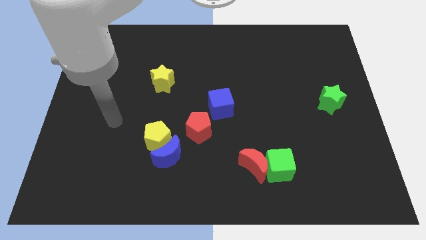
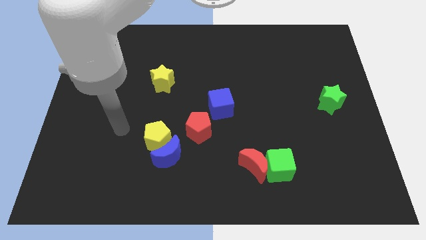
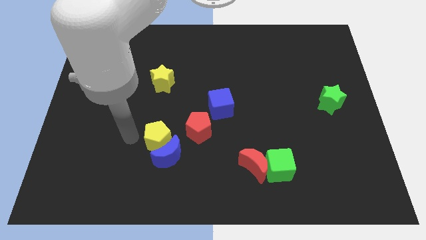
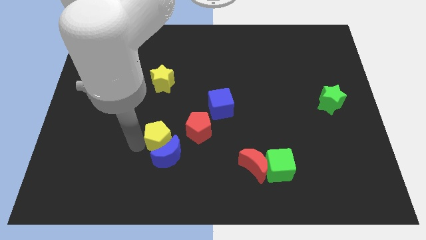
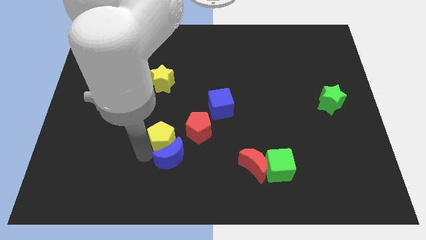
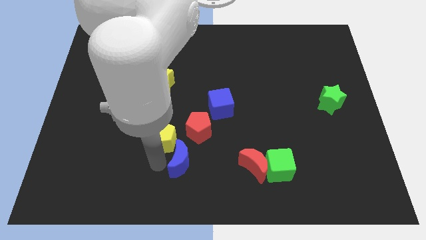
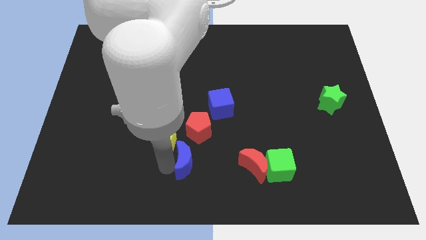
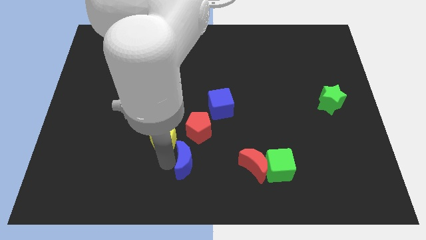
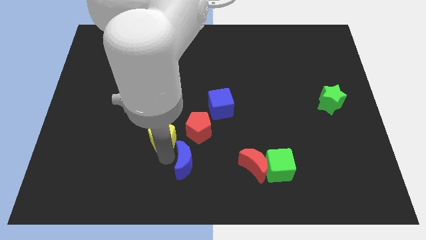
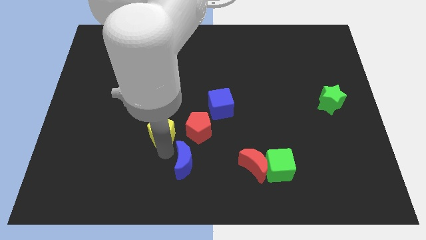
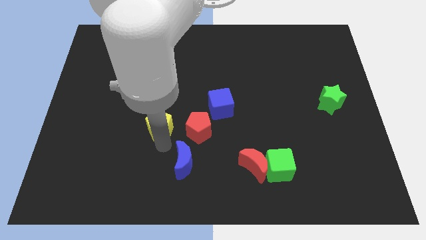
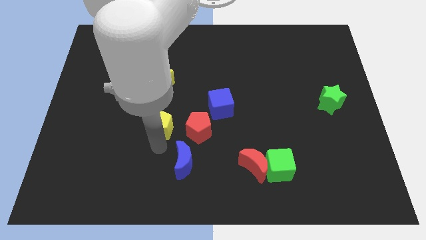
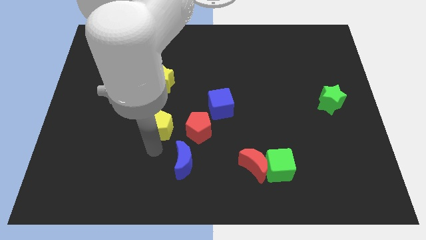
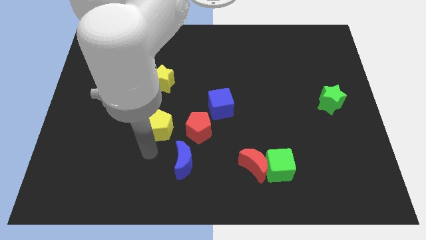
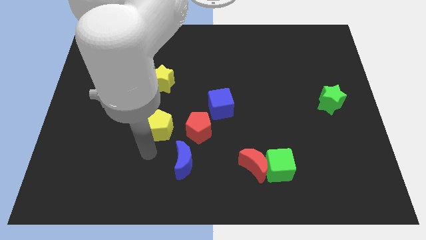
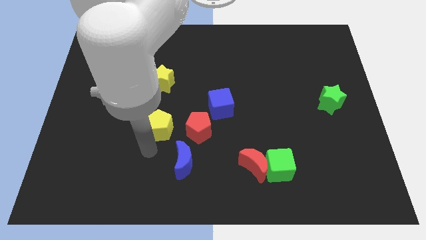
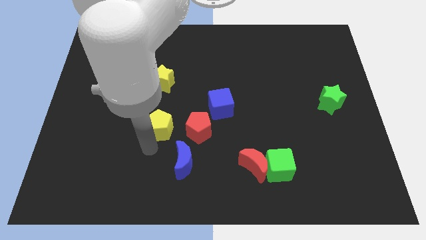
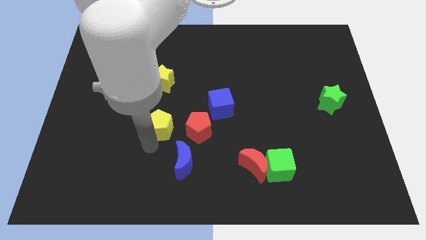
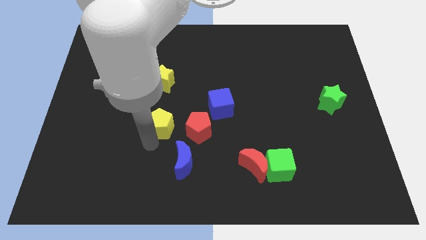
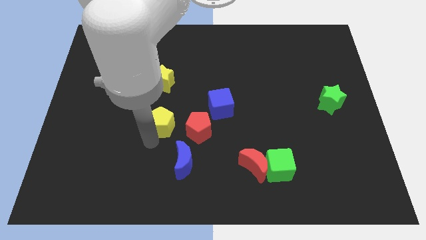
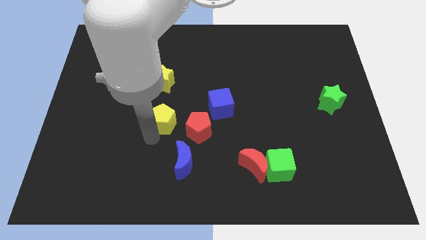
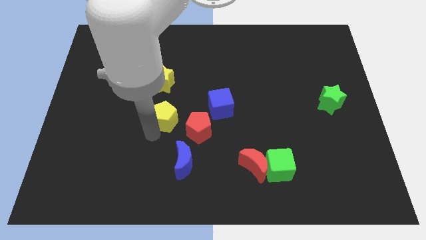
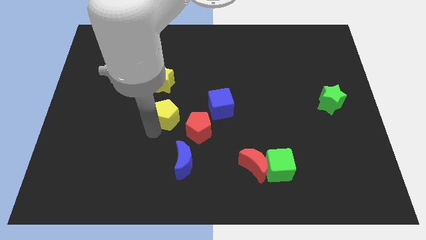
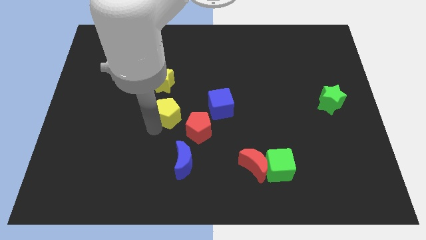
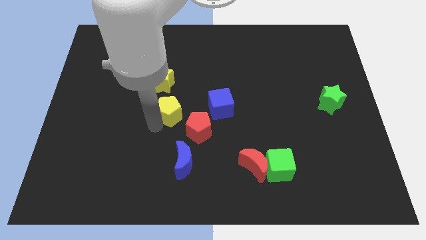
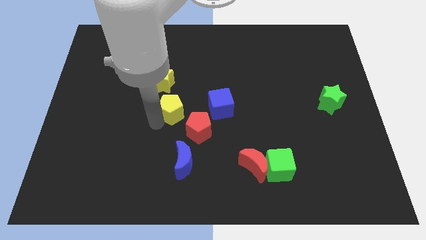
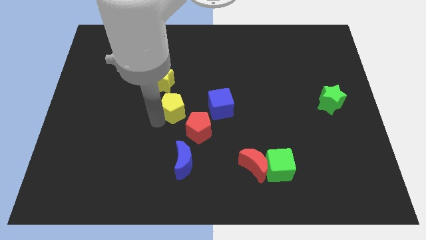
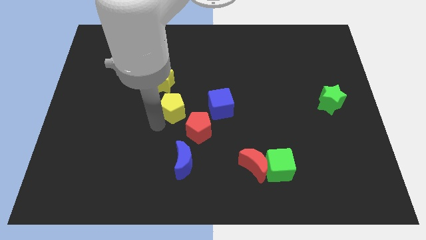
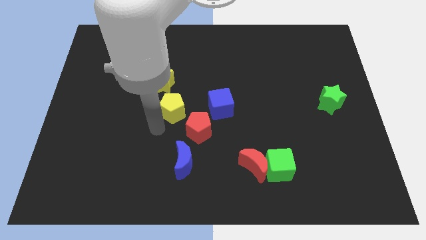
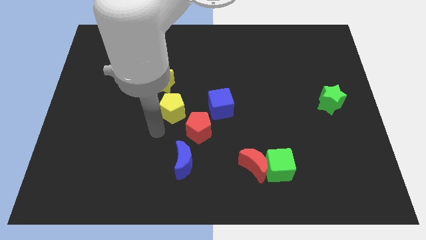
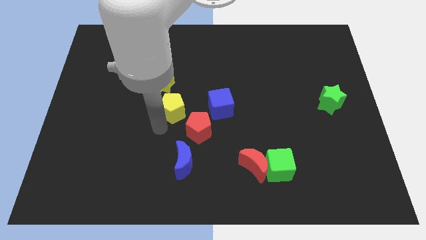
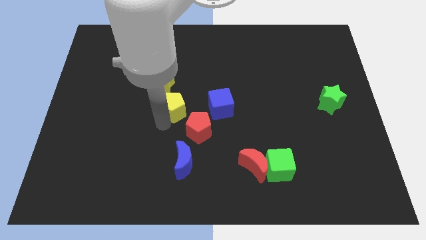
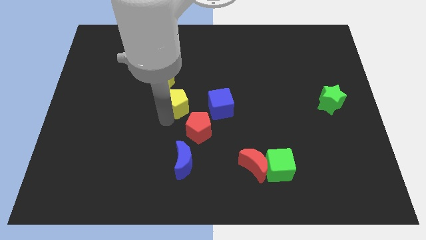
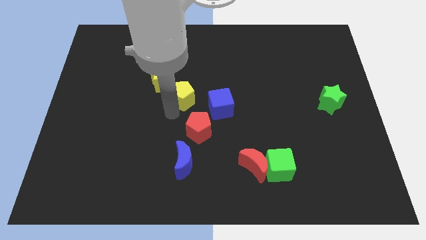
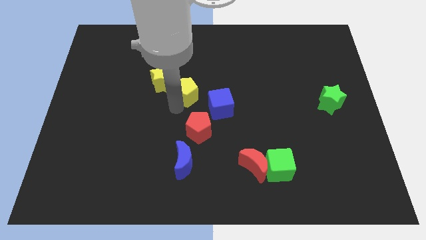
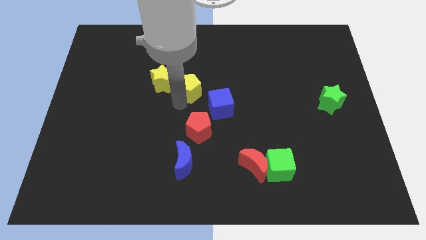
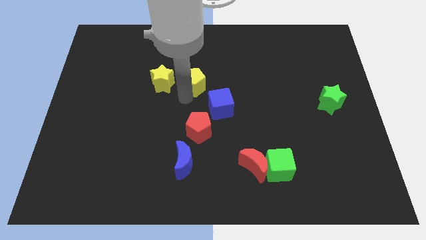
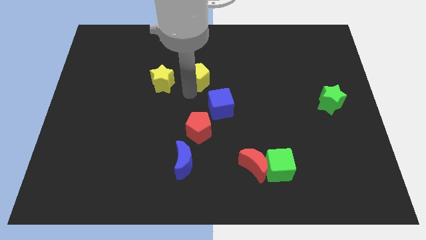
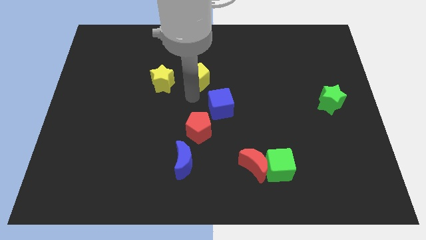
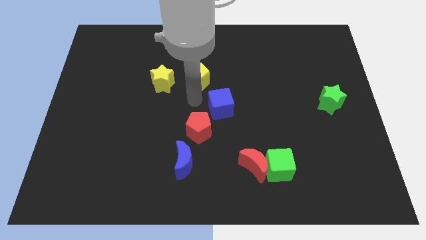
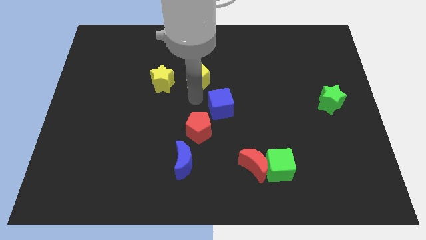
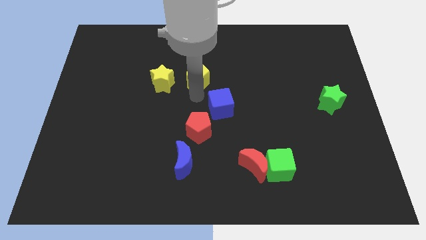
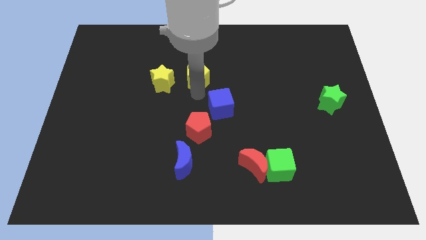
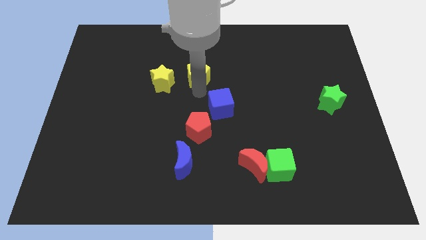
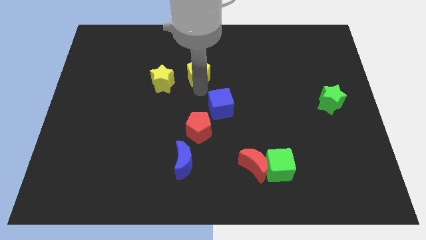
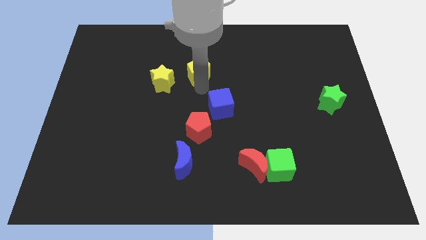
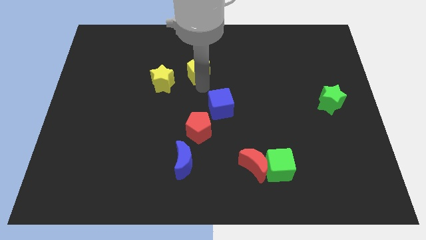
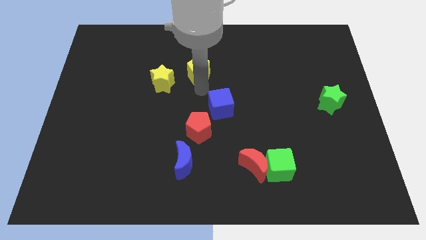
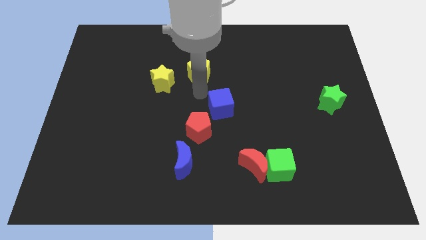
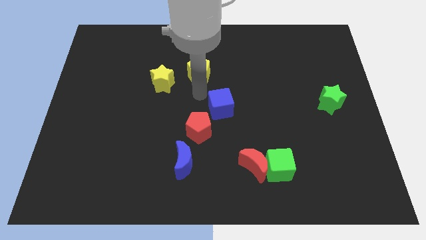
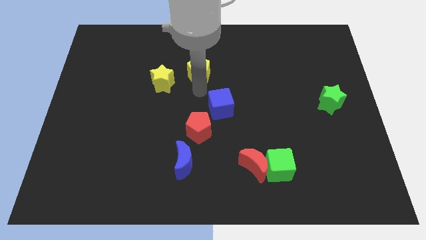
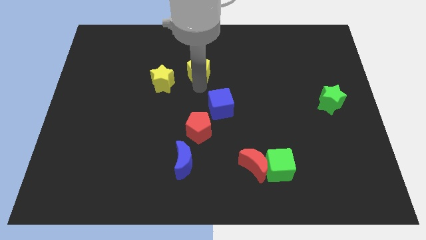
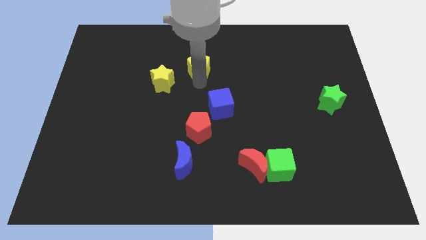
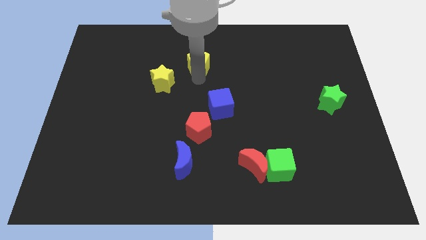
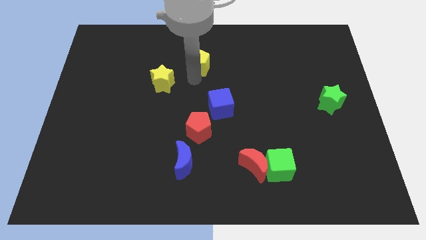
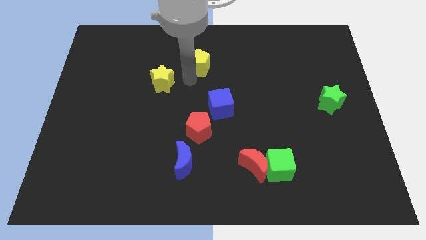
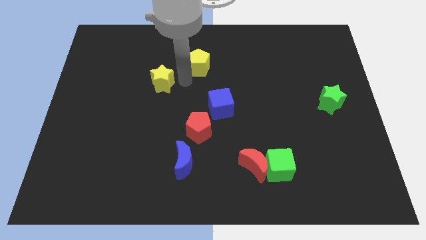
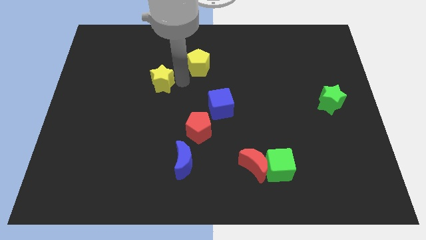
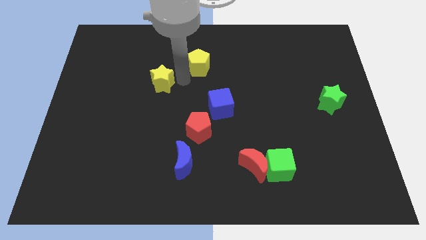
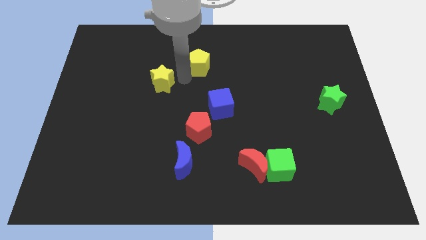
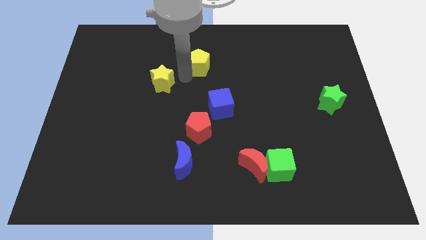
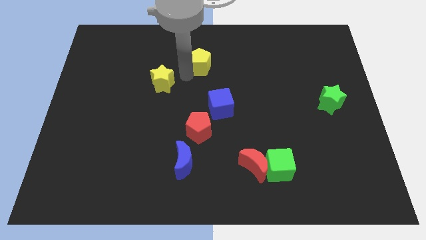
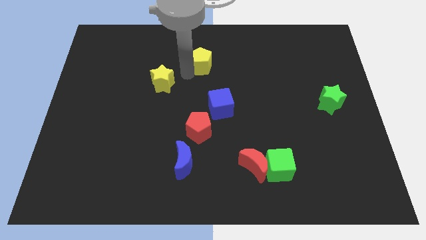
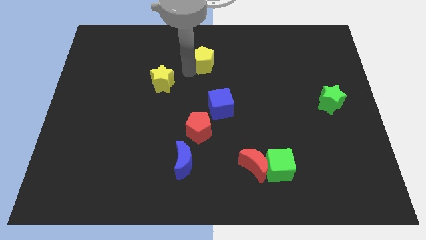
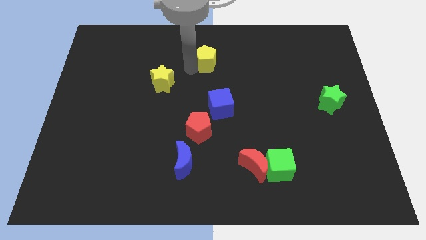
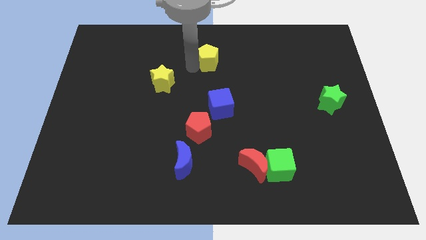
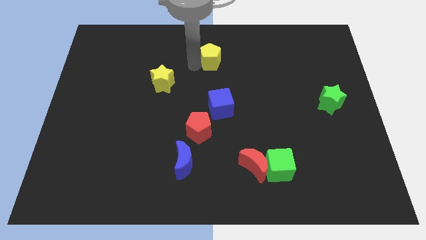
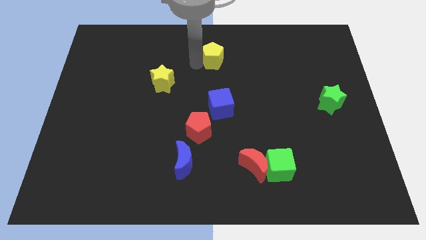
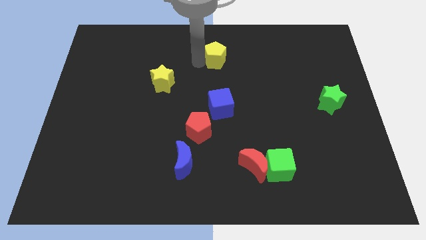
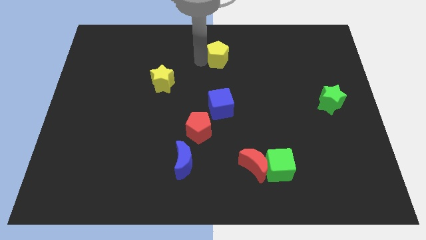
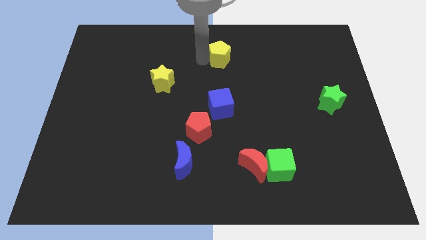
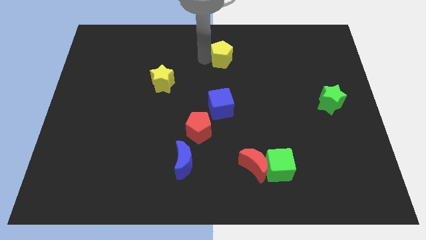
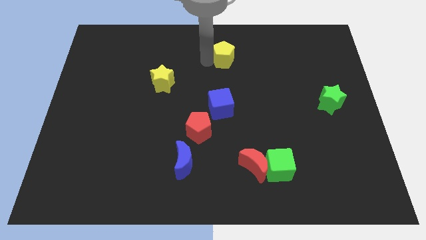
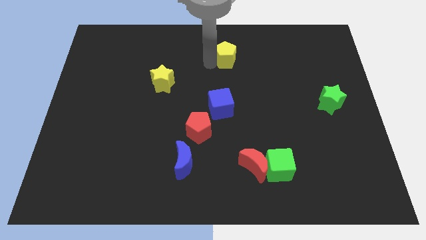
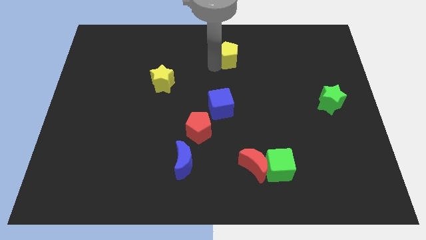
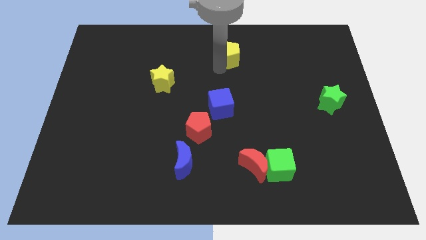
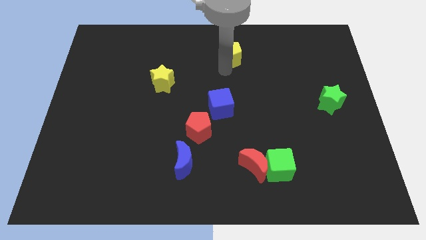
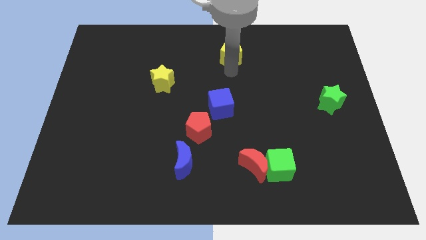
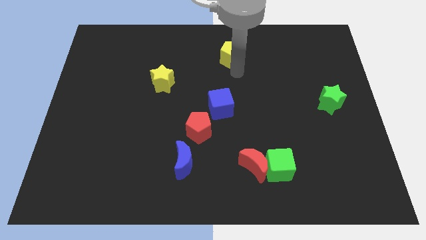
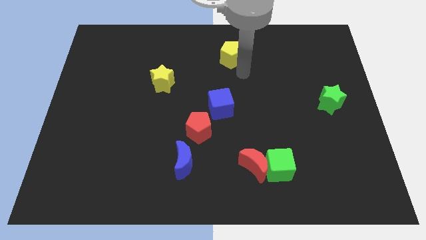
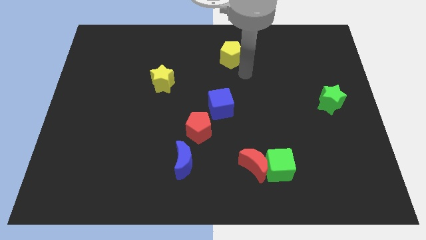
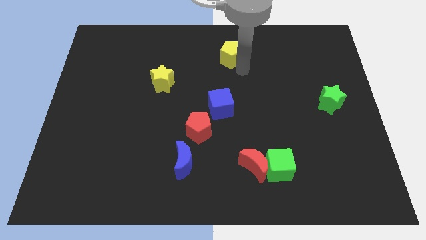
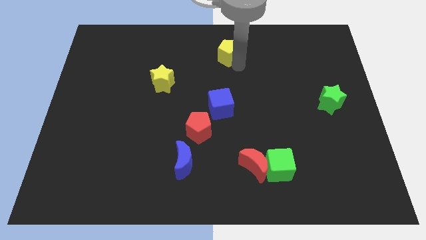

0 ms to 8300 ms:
push the yellow pentagon to the towards your base
